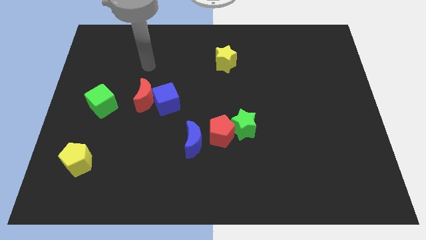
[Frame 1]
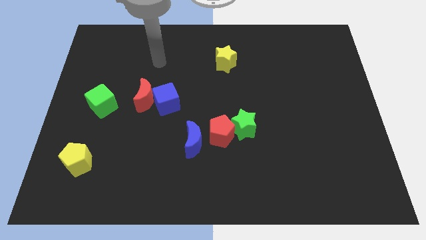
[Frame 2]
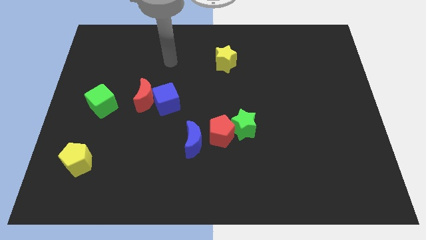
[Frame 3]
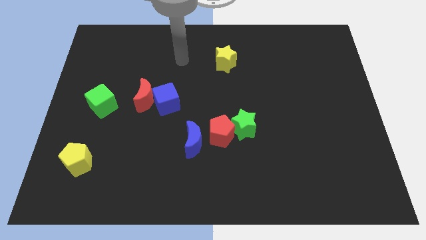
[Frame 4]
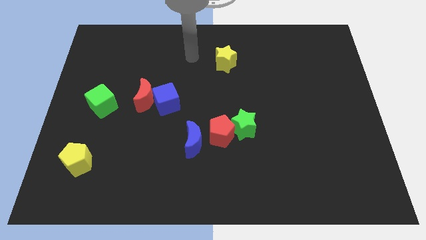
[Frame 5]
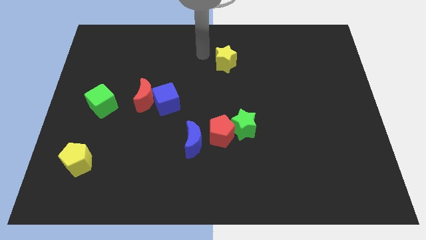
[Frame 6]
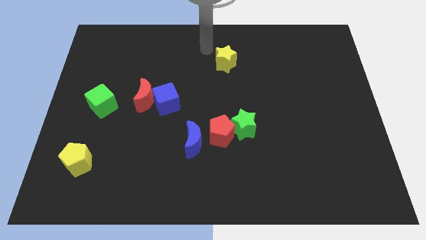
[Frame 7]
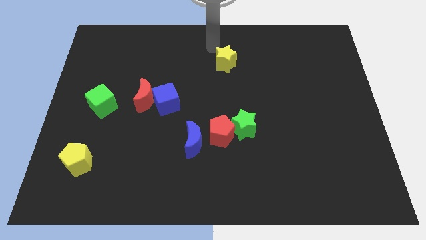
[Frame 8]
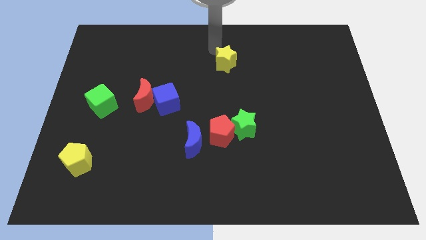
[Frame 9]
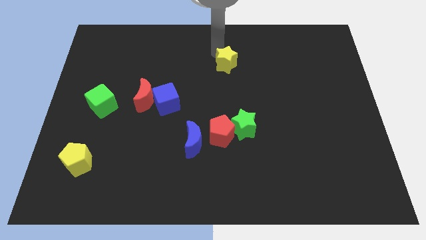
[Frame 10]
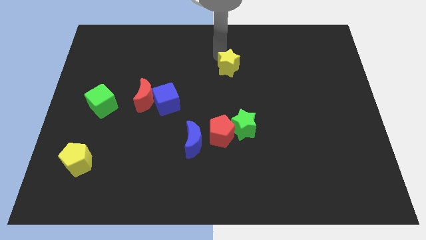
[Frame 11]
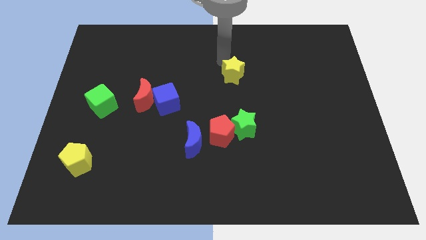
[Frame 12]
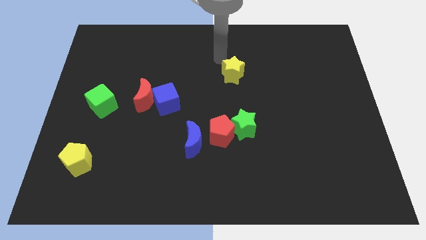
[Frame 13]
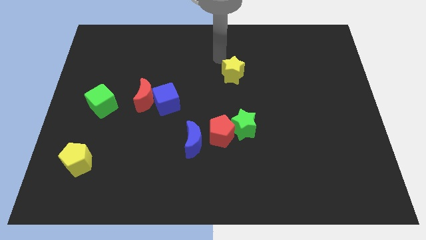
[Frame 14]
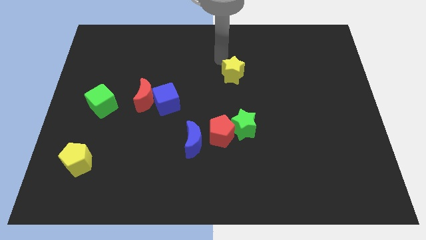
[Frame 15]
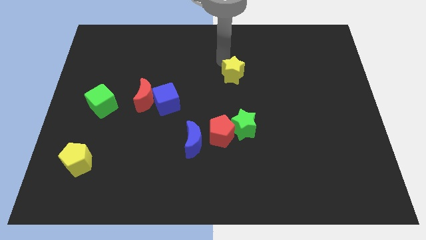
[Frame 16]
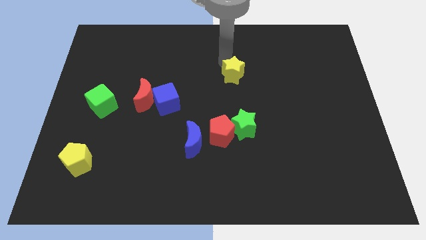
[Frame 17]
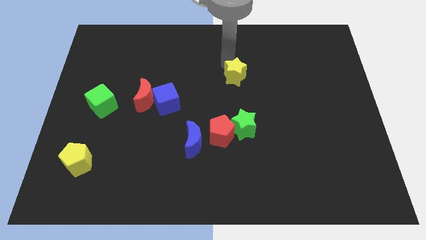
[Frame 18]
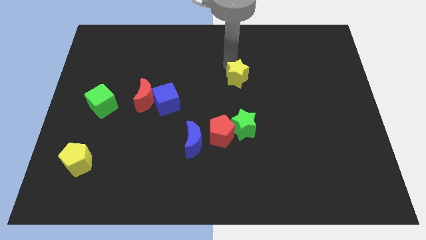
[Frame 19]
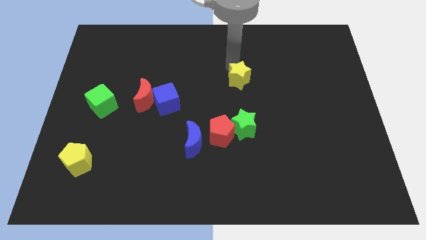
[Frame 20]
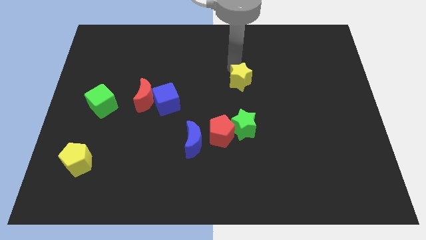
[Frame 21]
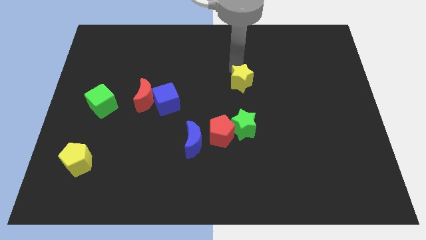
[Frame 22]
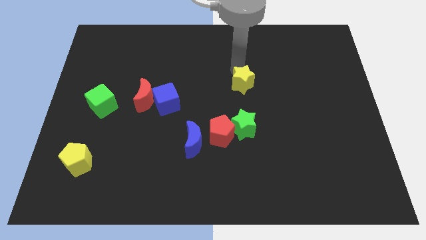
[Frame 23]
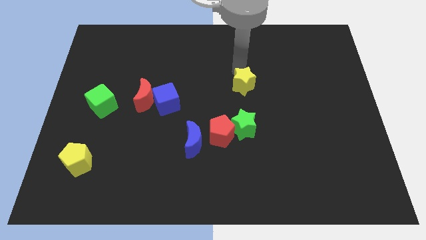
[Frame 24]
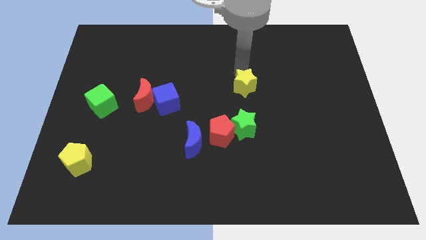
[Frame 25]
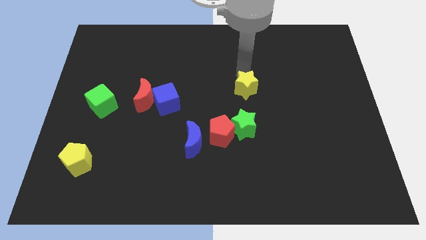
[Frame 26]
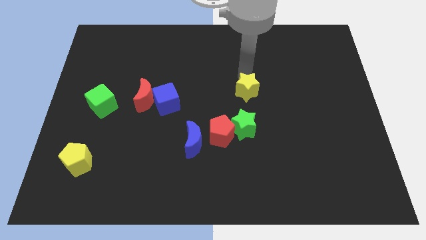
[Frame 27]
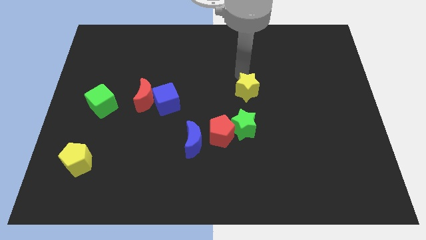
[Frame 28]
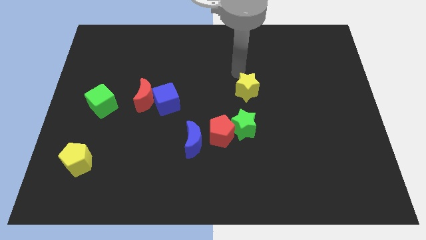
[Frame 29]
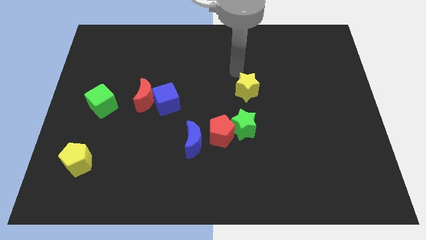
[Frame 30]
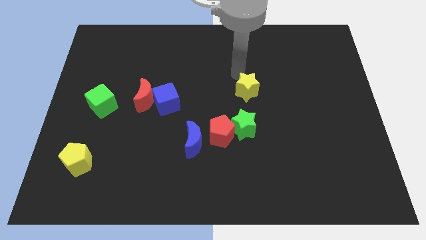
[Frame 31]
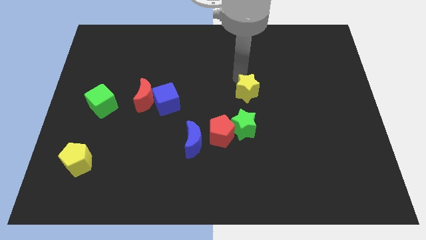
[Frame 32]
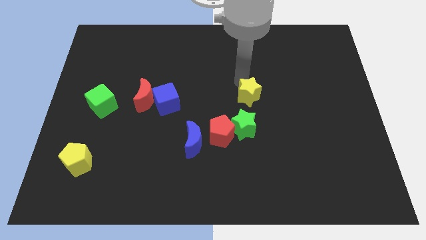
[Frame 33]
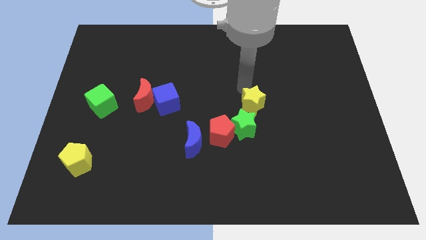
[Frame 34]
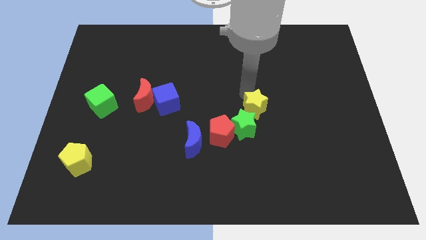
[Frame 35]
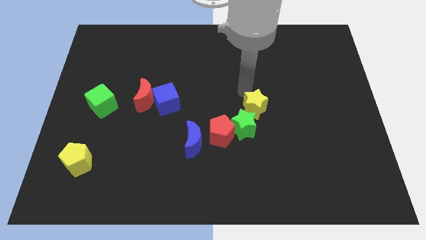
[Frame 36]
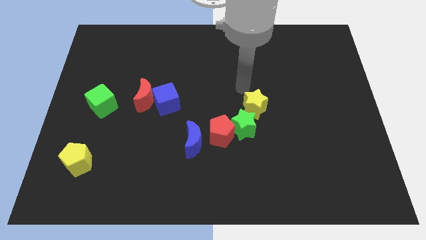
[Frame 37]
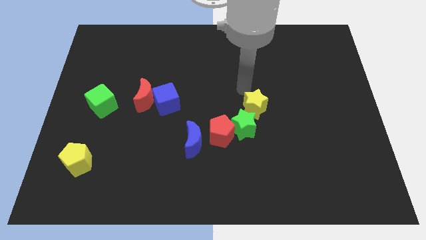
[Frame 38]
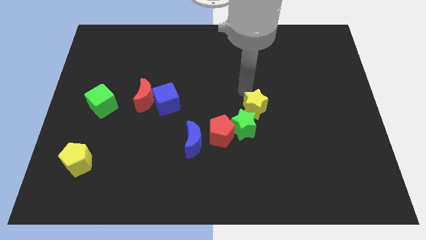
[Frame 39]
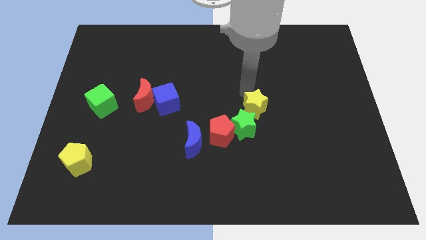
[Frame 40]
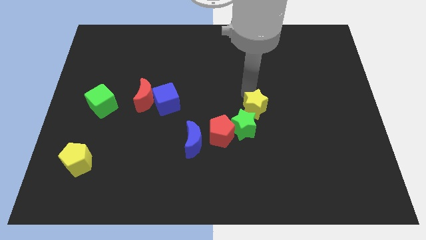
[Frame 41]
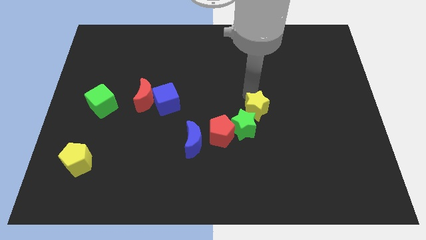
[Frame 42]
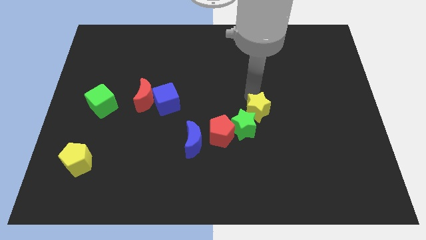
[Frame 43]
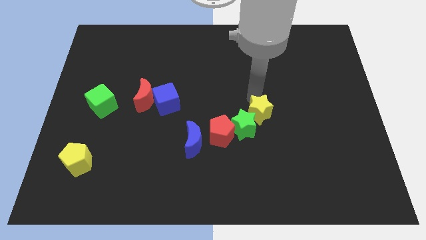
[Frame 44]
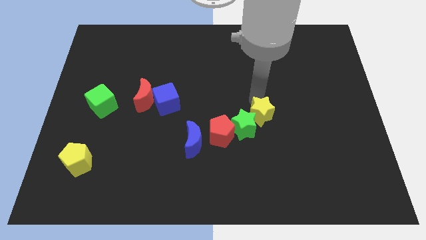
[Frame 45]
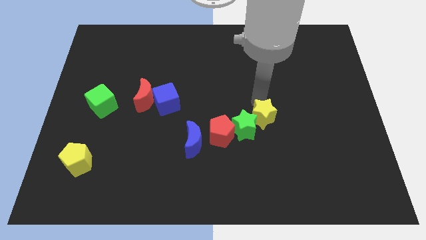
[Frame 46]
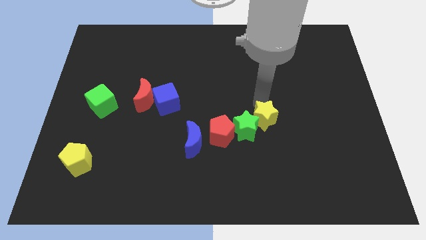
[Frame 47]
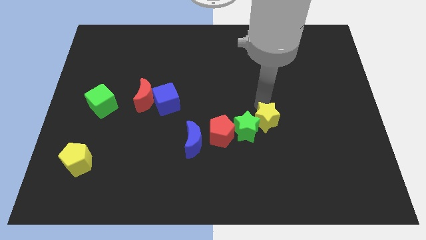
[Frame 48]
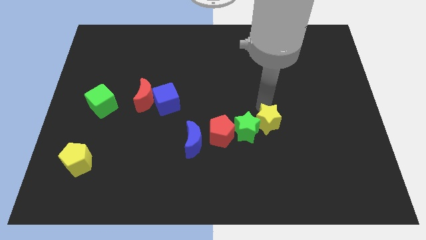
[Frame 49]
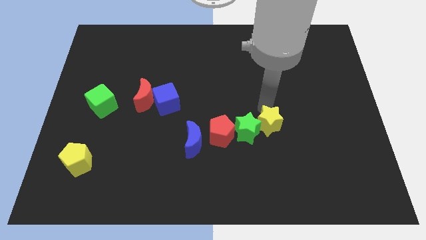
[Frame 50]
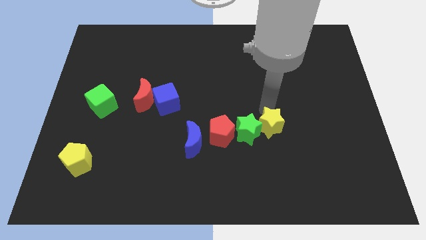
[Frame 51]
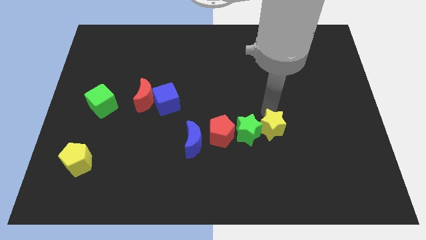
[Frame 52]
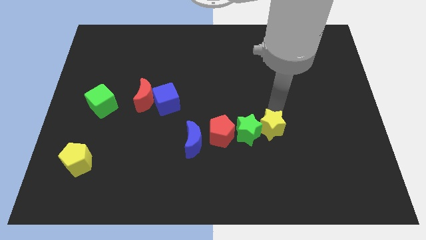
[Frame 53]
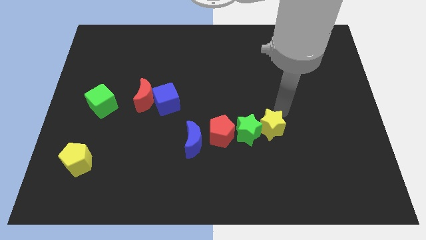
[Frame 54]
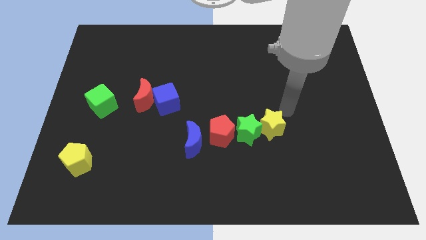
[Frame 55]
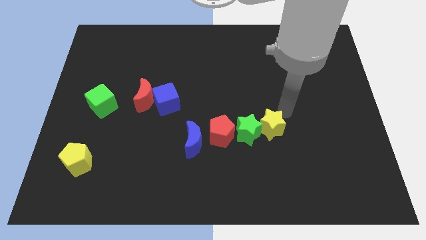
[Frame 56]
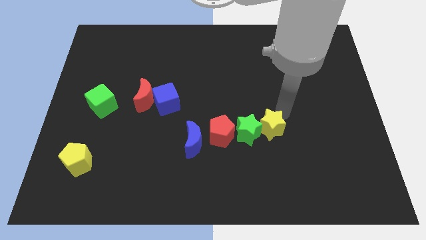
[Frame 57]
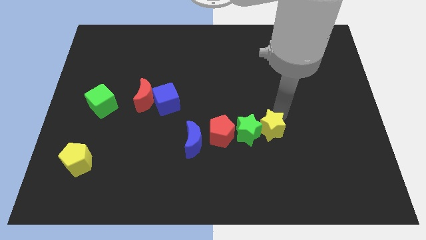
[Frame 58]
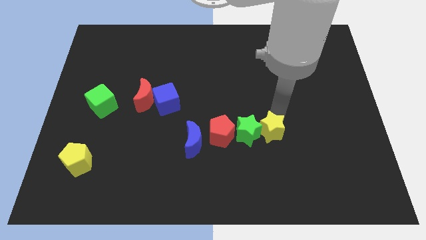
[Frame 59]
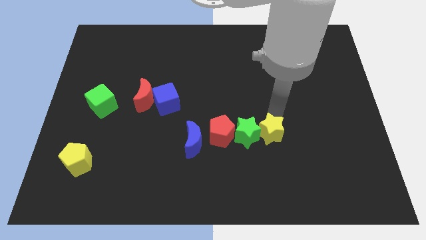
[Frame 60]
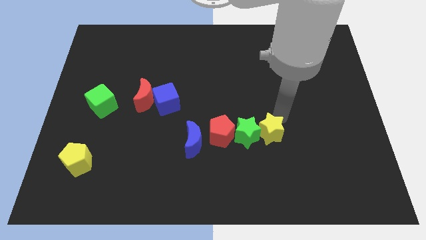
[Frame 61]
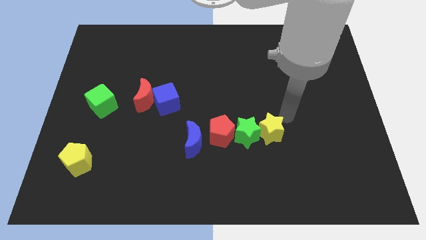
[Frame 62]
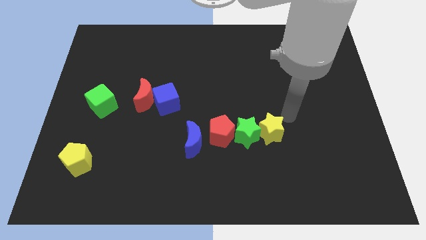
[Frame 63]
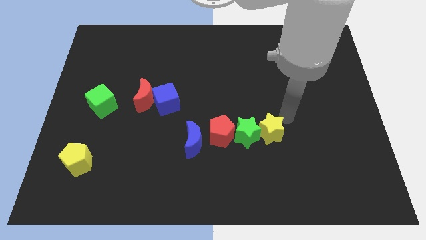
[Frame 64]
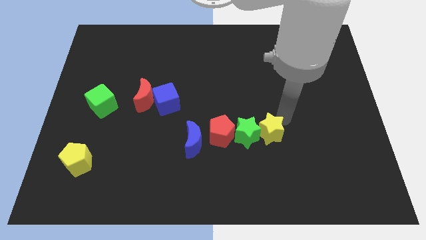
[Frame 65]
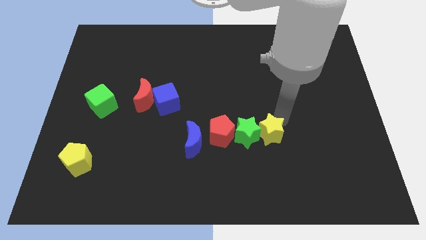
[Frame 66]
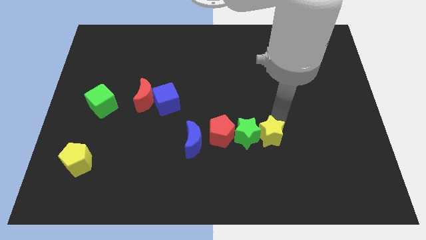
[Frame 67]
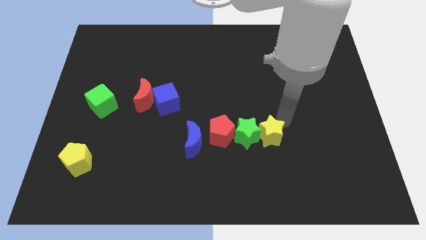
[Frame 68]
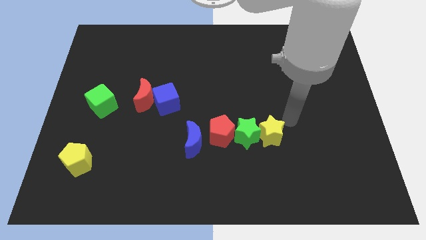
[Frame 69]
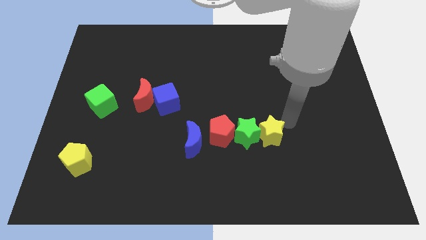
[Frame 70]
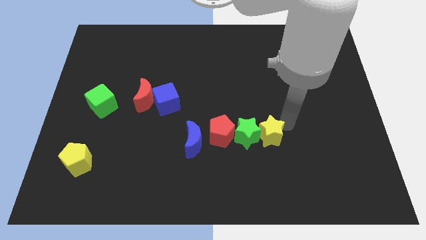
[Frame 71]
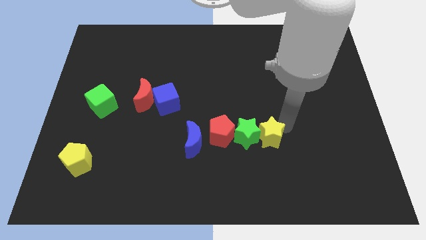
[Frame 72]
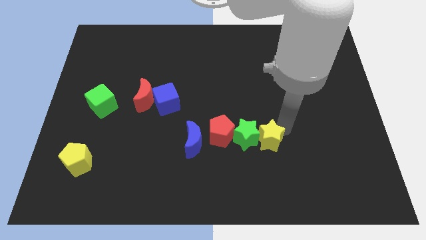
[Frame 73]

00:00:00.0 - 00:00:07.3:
move the yellow star down

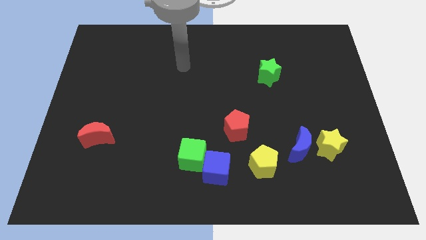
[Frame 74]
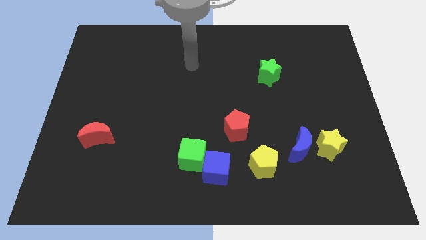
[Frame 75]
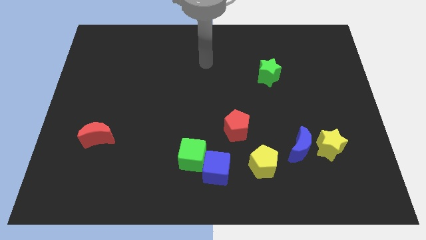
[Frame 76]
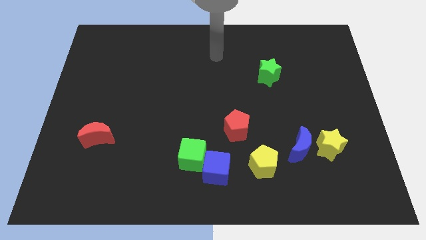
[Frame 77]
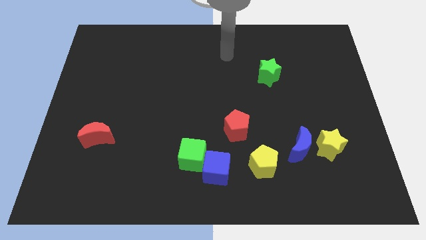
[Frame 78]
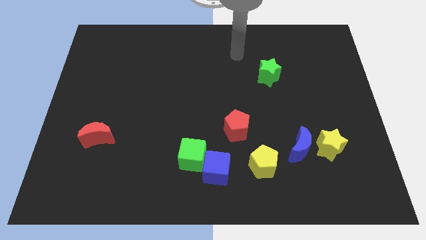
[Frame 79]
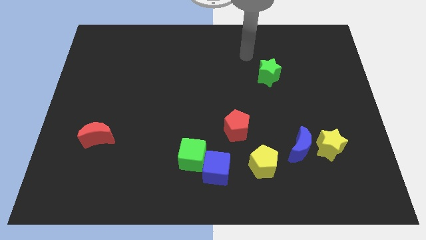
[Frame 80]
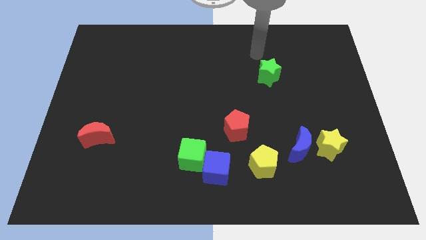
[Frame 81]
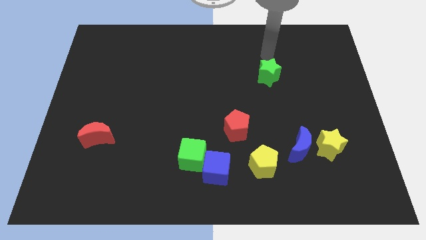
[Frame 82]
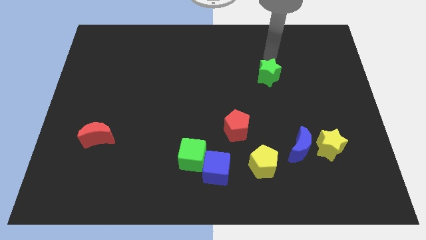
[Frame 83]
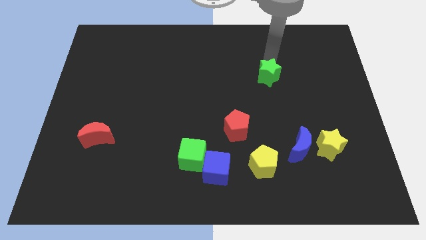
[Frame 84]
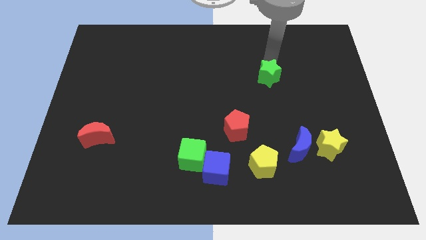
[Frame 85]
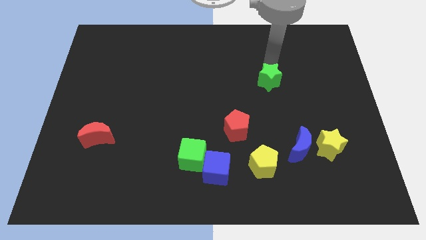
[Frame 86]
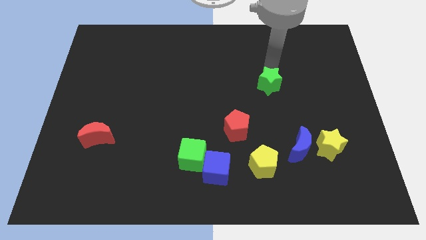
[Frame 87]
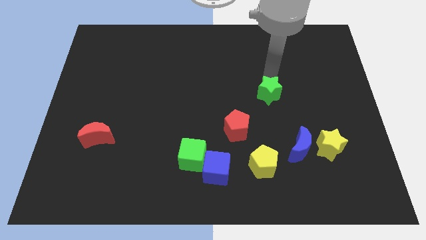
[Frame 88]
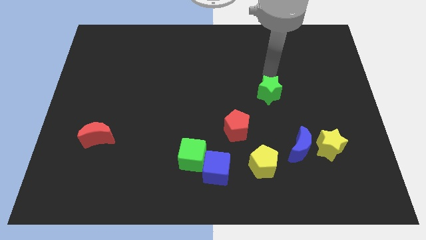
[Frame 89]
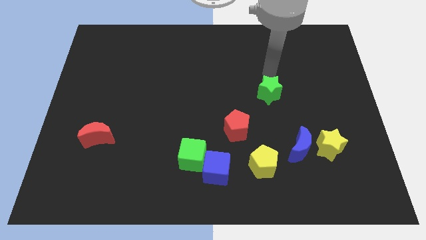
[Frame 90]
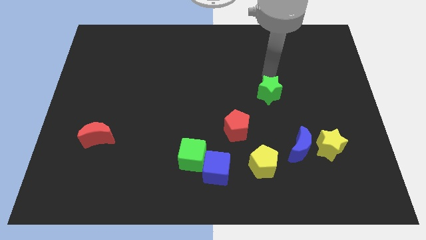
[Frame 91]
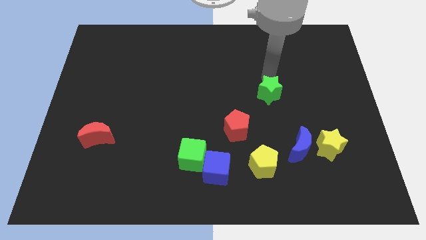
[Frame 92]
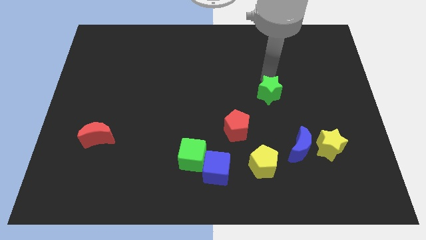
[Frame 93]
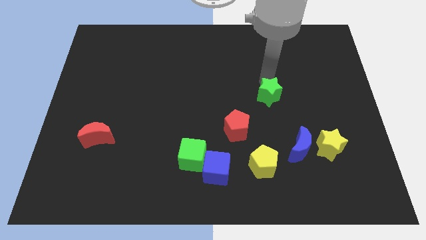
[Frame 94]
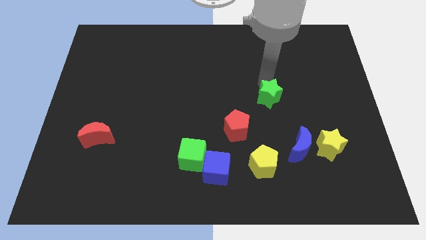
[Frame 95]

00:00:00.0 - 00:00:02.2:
move the green star down somewhat
